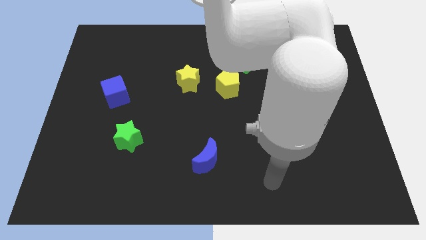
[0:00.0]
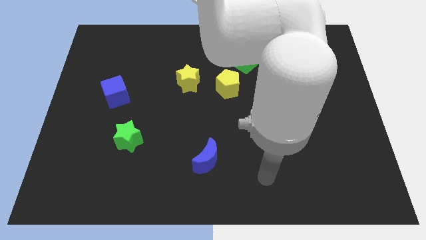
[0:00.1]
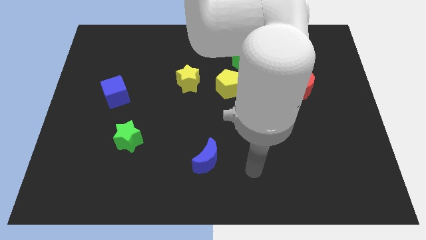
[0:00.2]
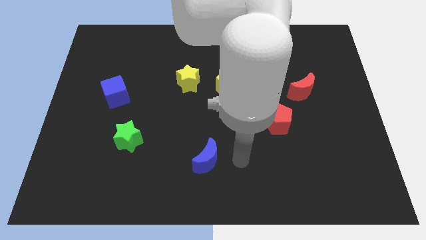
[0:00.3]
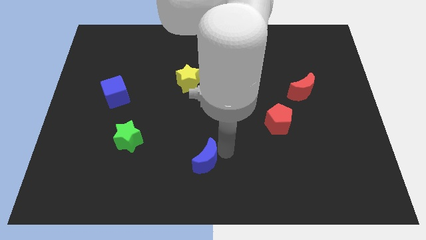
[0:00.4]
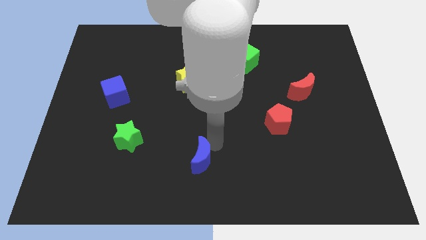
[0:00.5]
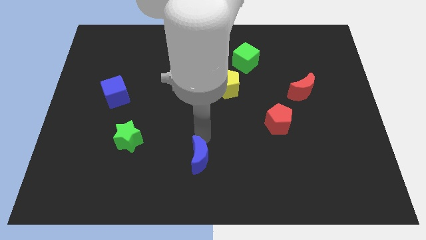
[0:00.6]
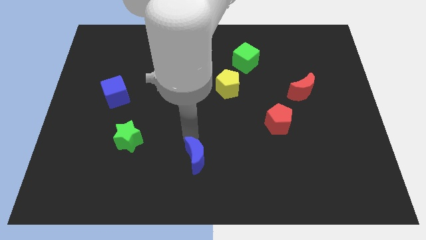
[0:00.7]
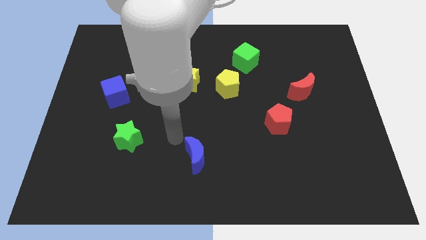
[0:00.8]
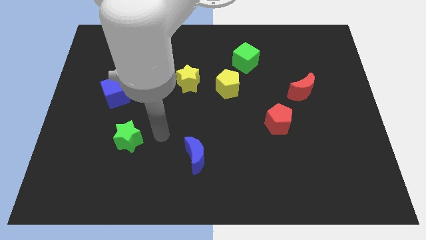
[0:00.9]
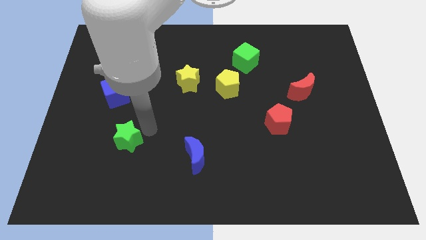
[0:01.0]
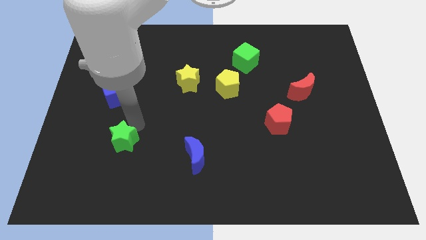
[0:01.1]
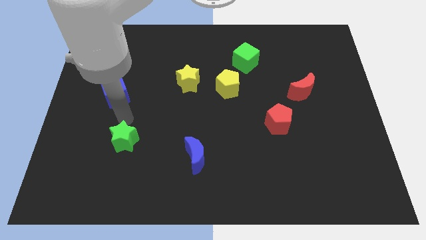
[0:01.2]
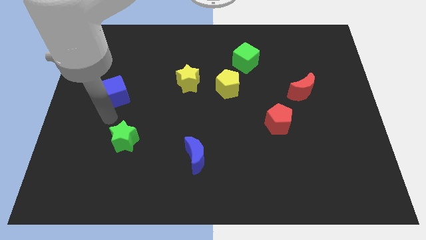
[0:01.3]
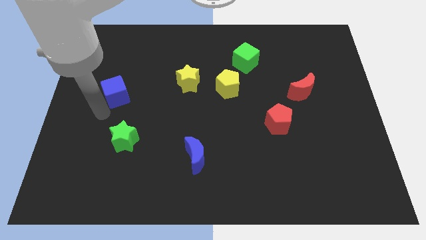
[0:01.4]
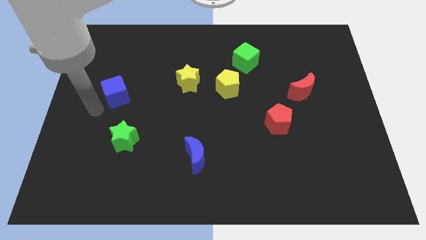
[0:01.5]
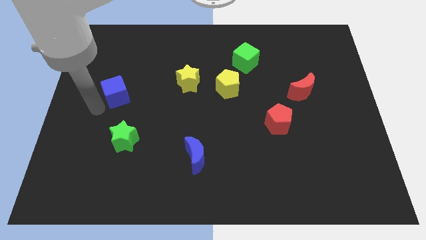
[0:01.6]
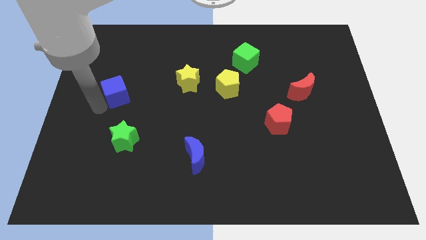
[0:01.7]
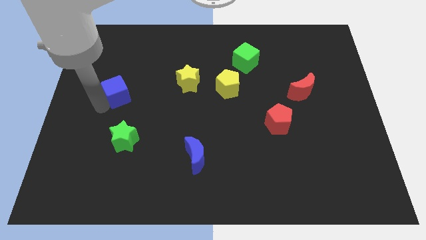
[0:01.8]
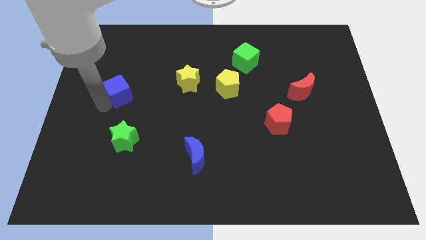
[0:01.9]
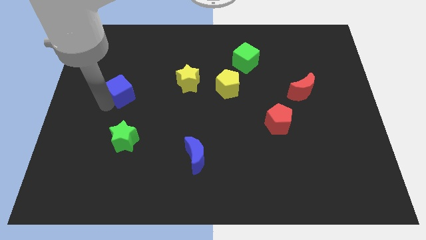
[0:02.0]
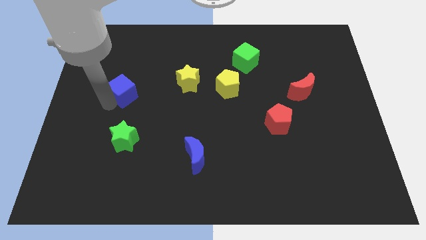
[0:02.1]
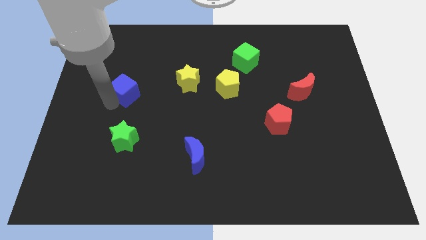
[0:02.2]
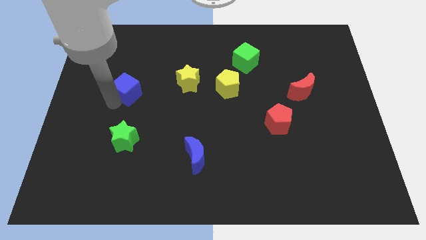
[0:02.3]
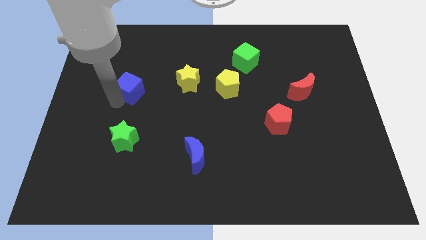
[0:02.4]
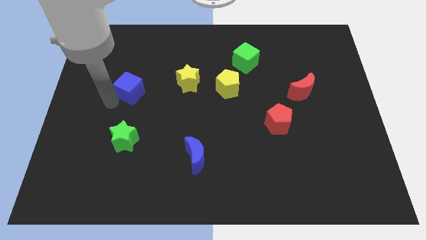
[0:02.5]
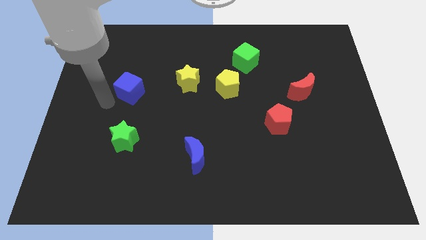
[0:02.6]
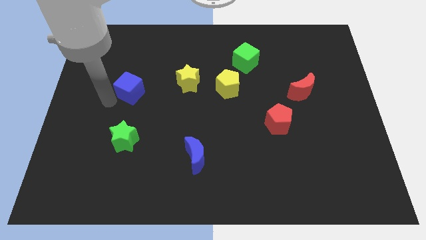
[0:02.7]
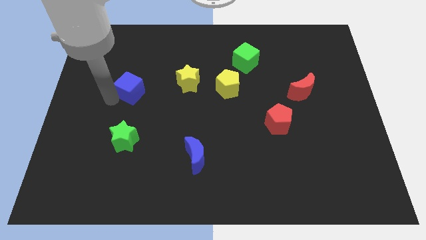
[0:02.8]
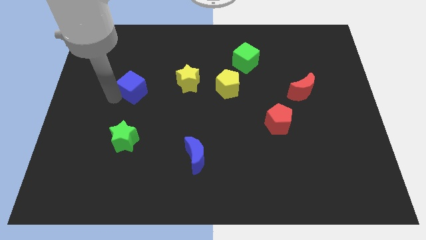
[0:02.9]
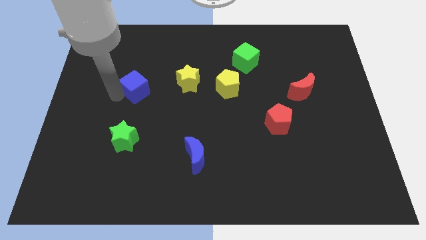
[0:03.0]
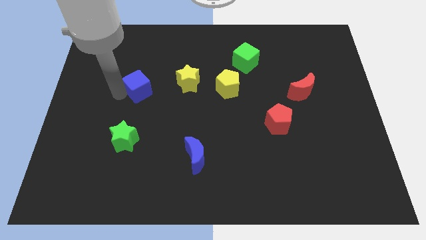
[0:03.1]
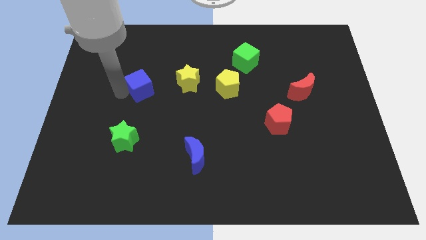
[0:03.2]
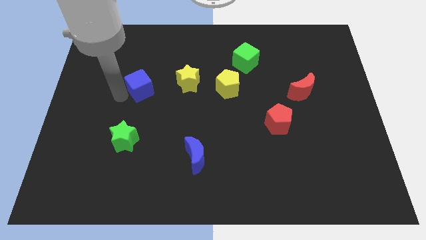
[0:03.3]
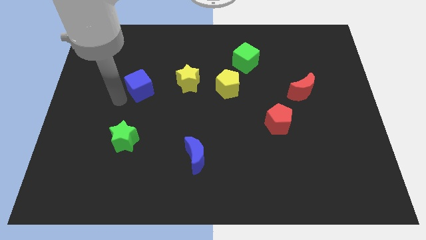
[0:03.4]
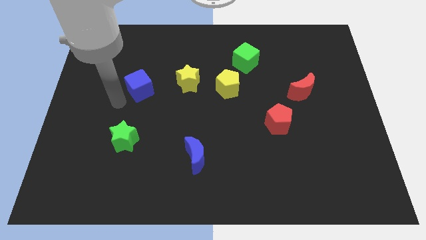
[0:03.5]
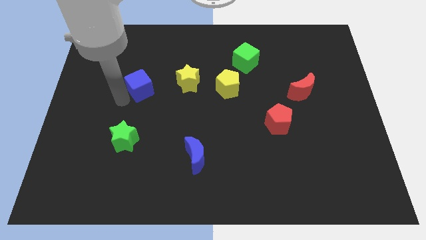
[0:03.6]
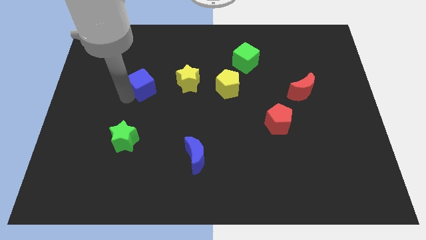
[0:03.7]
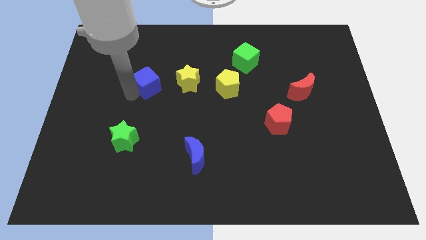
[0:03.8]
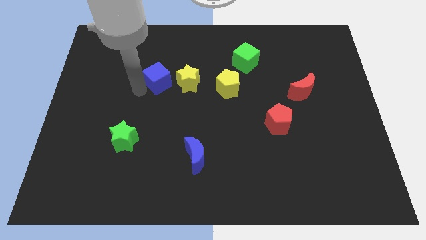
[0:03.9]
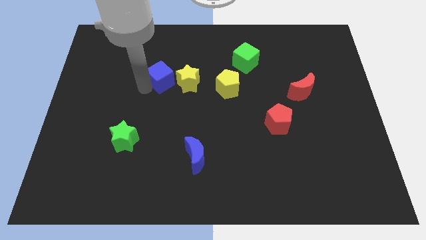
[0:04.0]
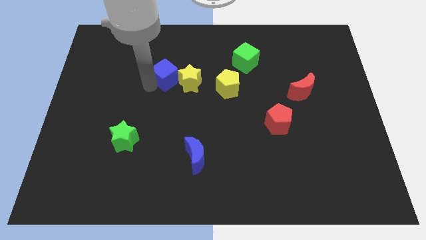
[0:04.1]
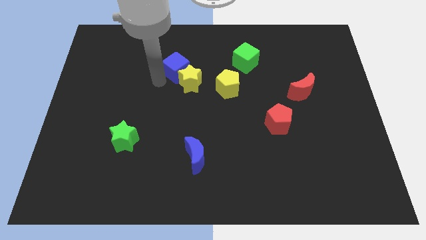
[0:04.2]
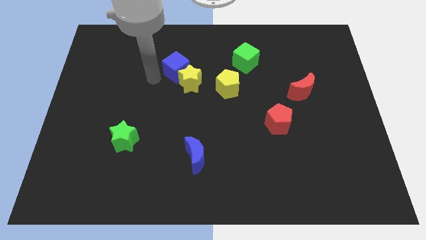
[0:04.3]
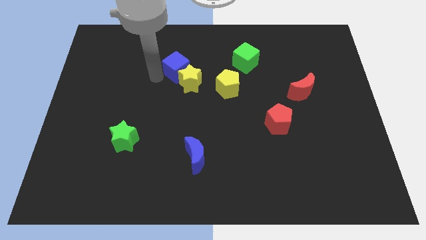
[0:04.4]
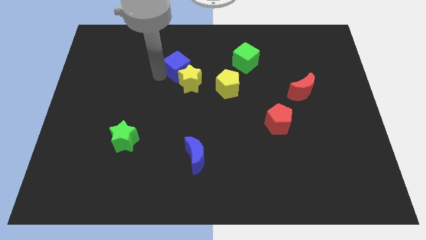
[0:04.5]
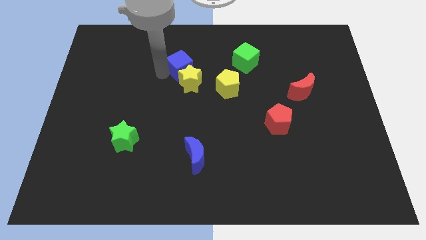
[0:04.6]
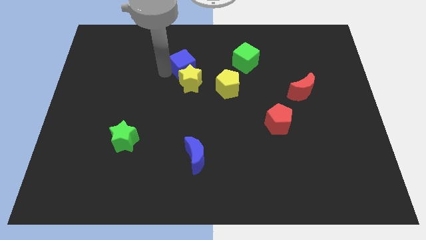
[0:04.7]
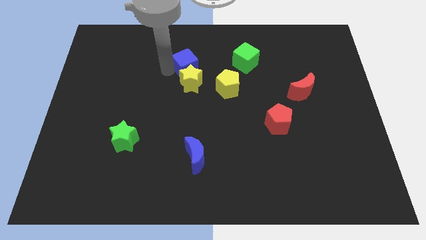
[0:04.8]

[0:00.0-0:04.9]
push the blue cube to the left side of the green cube

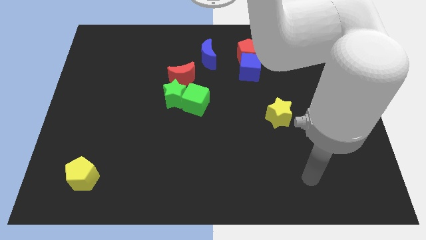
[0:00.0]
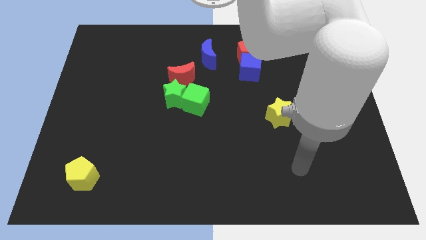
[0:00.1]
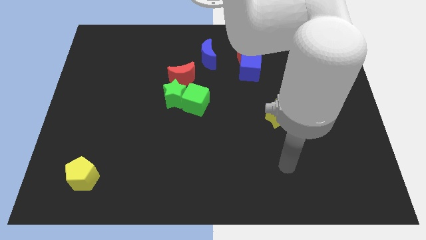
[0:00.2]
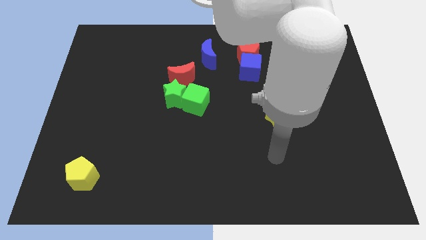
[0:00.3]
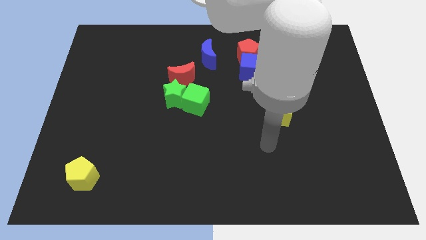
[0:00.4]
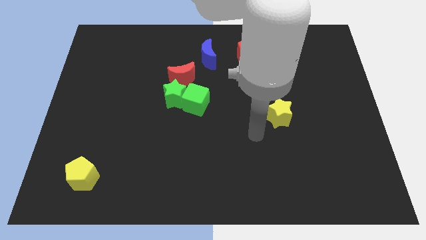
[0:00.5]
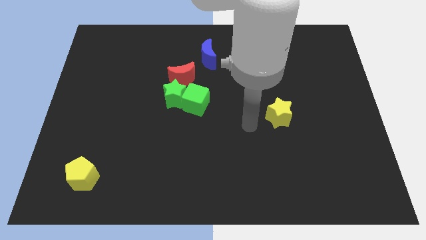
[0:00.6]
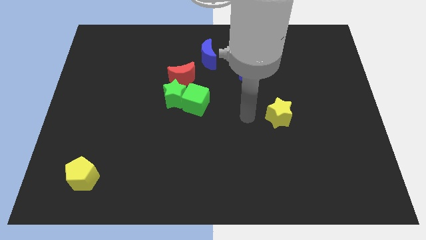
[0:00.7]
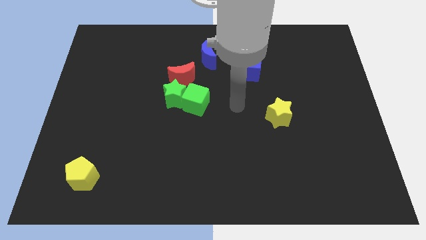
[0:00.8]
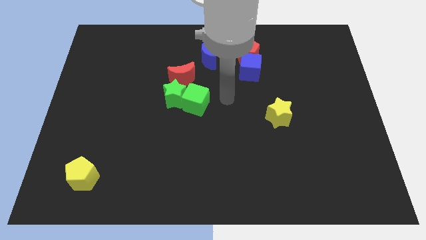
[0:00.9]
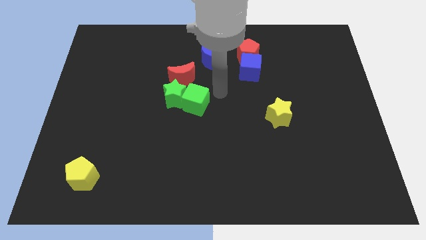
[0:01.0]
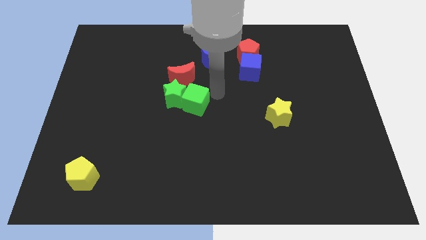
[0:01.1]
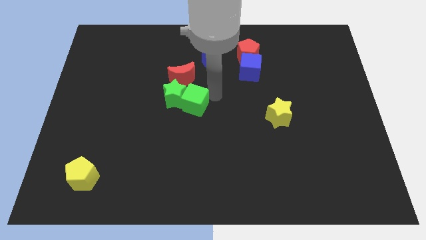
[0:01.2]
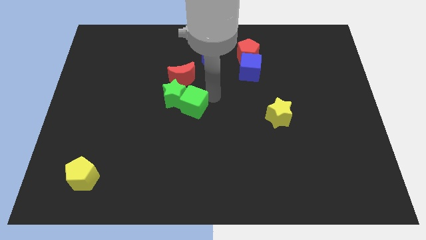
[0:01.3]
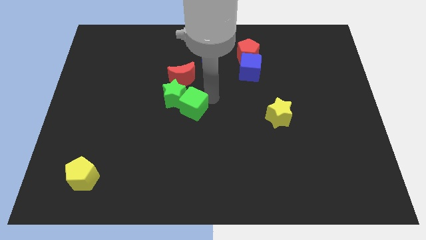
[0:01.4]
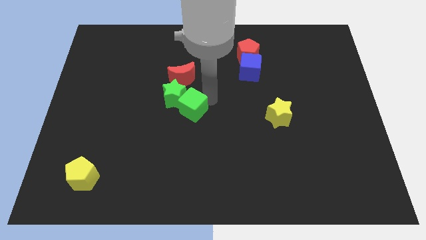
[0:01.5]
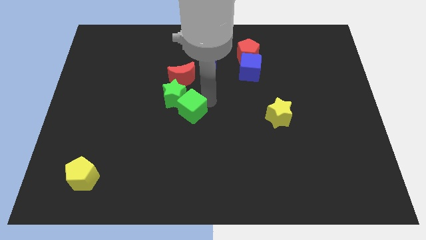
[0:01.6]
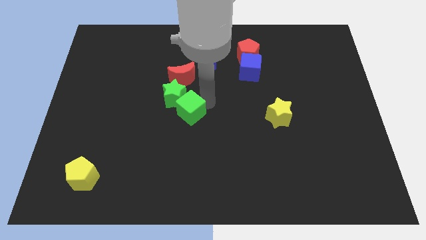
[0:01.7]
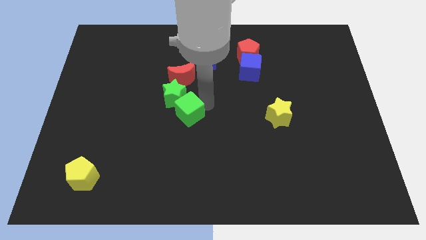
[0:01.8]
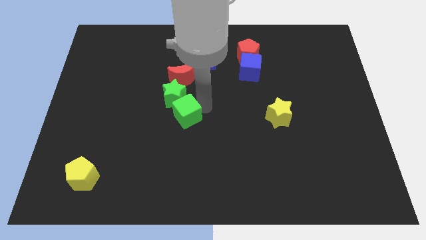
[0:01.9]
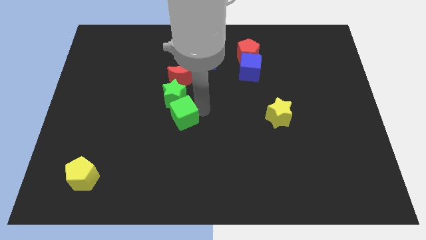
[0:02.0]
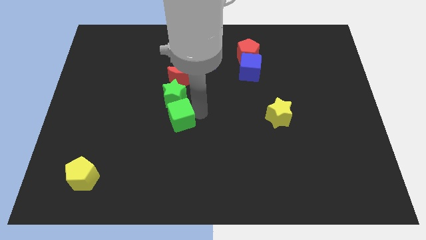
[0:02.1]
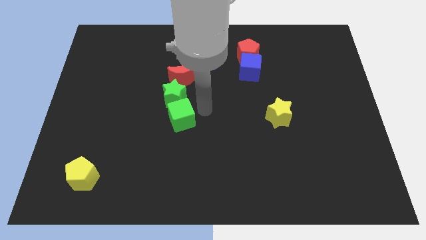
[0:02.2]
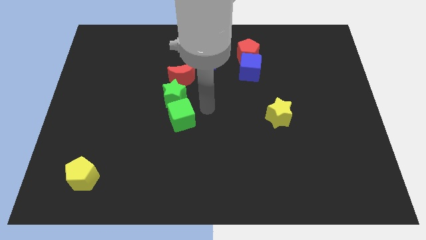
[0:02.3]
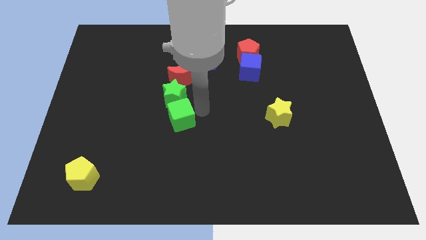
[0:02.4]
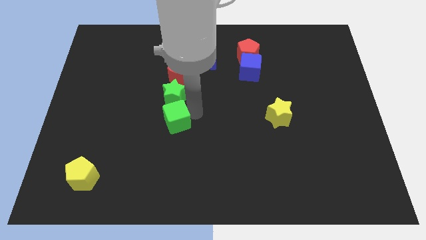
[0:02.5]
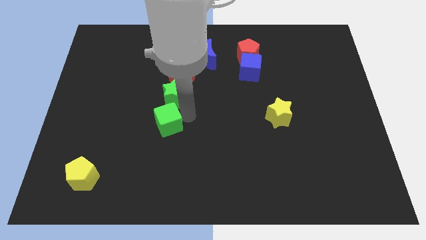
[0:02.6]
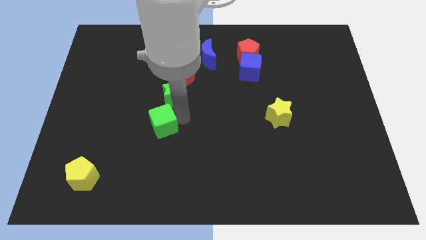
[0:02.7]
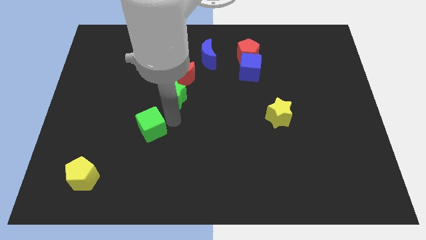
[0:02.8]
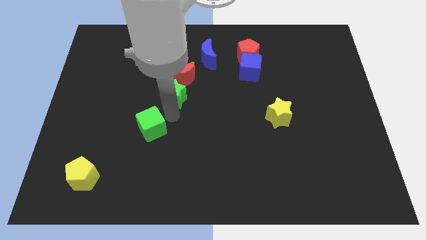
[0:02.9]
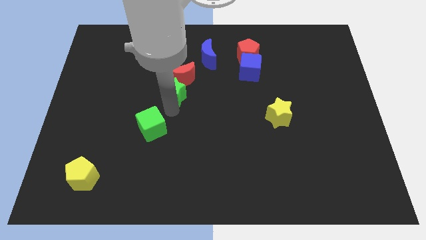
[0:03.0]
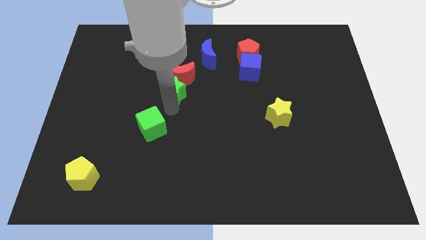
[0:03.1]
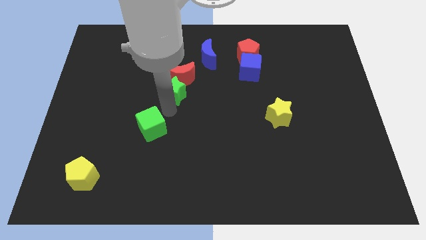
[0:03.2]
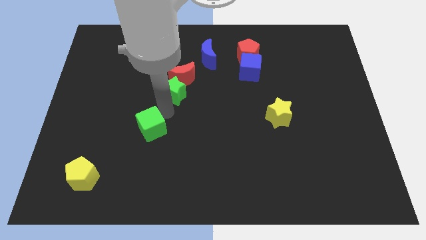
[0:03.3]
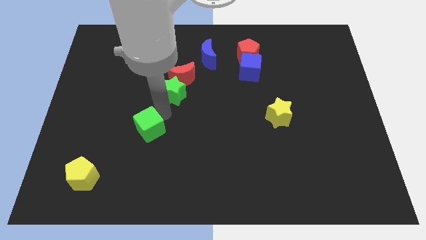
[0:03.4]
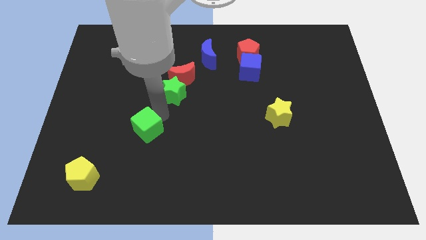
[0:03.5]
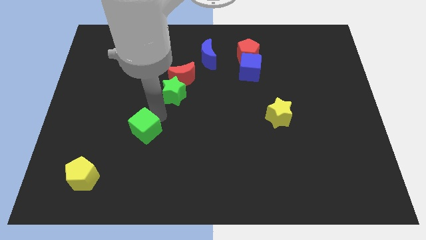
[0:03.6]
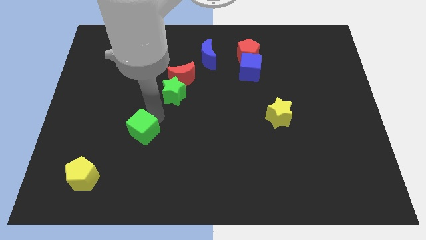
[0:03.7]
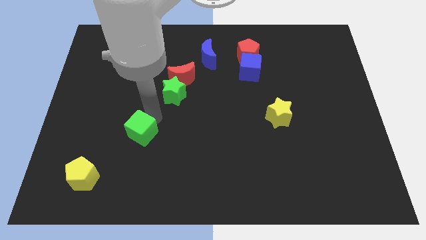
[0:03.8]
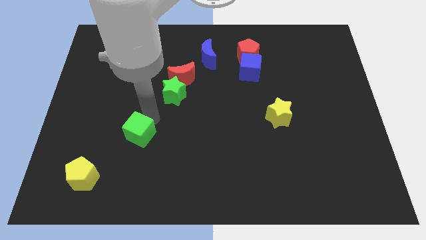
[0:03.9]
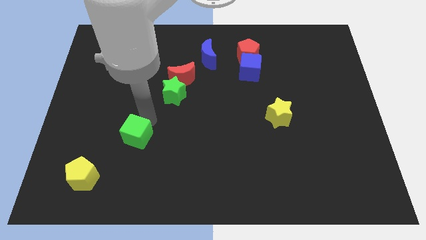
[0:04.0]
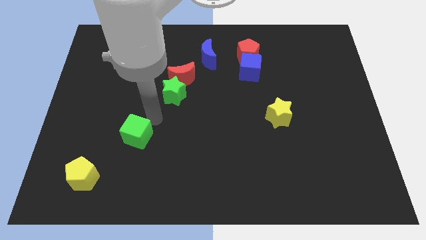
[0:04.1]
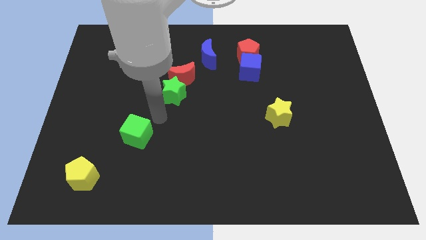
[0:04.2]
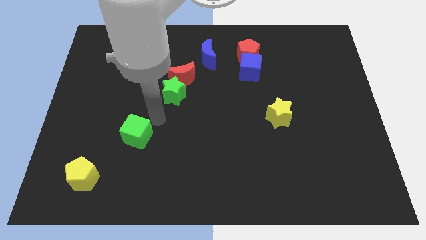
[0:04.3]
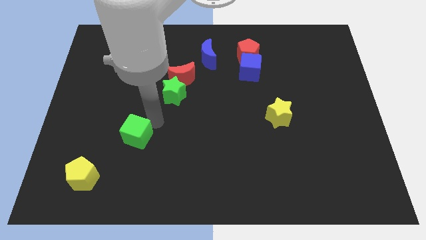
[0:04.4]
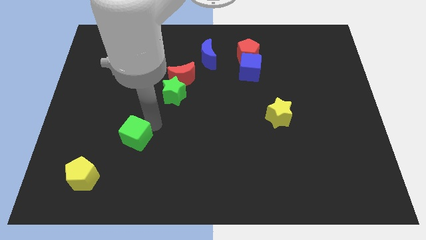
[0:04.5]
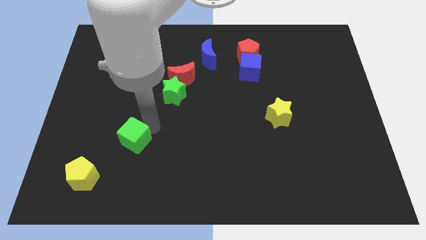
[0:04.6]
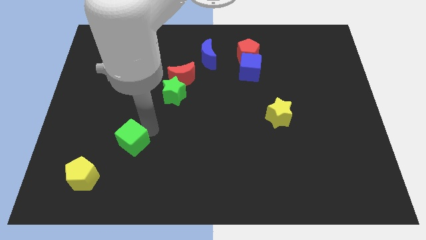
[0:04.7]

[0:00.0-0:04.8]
push the green cube to the top right of the yellow pentagon
